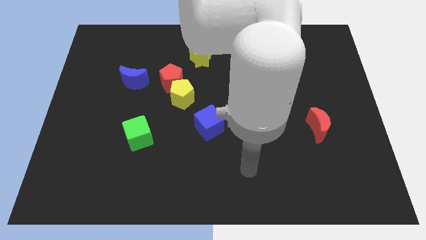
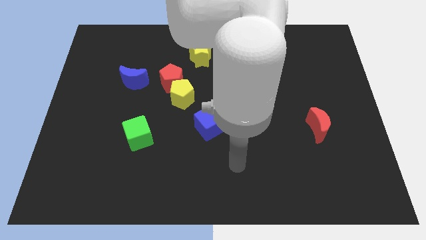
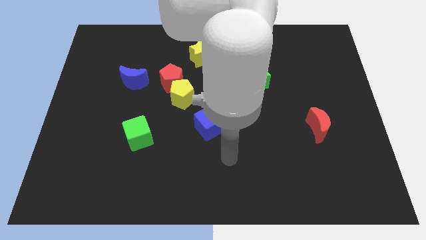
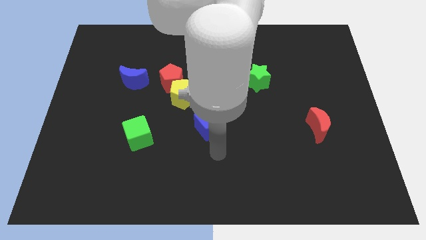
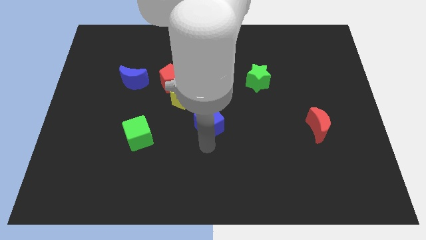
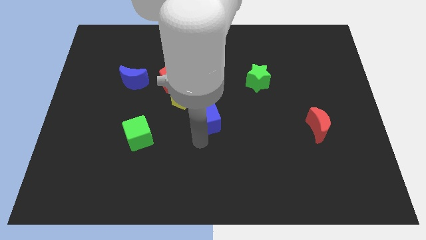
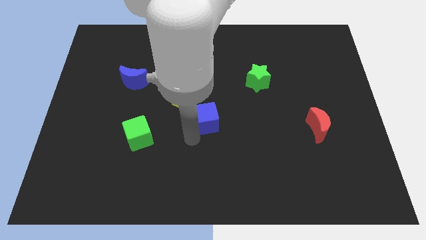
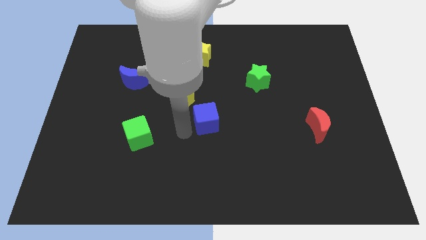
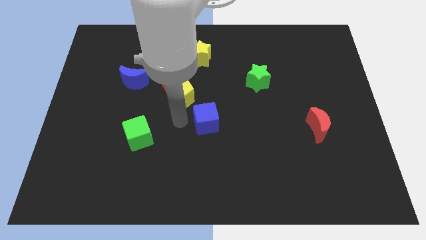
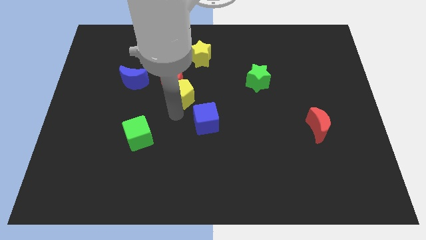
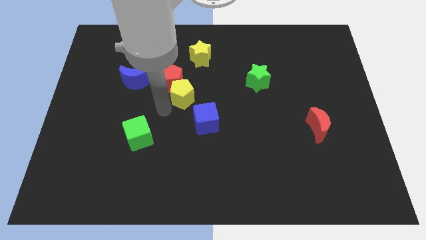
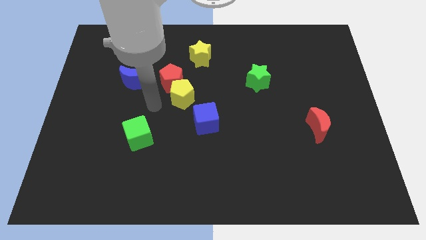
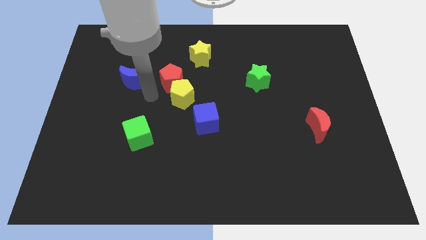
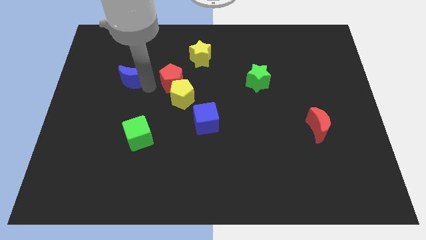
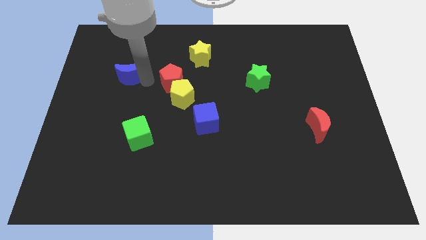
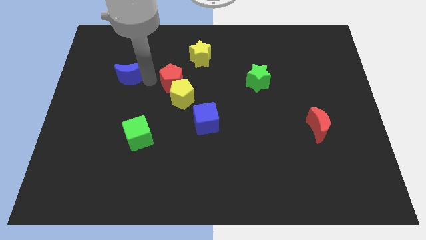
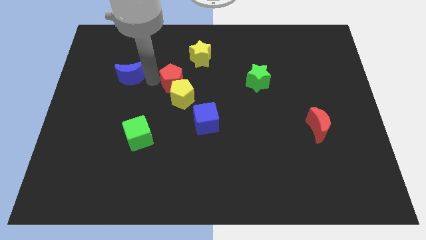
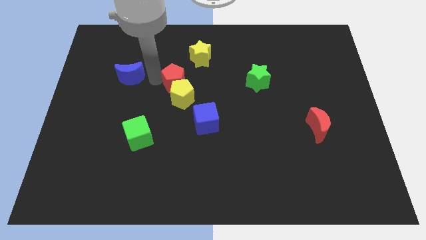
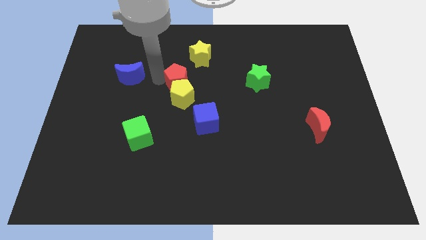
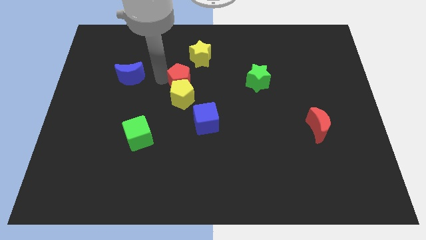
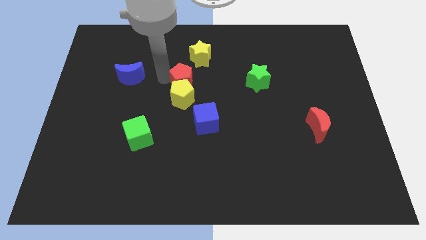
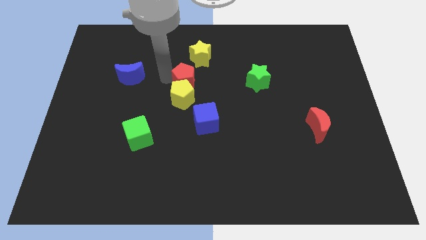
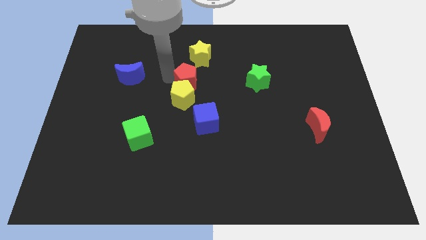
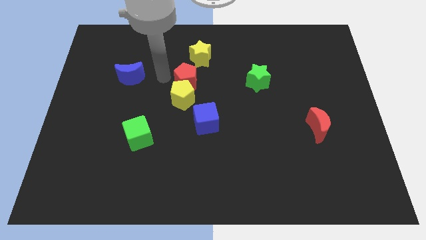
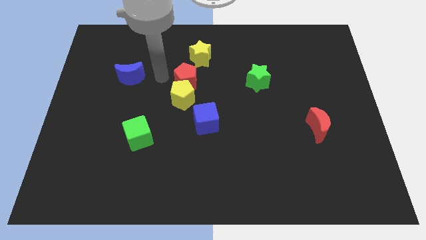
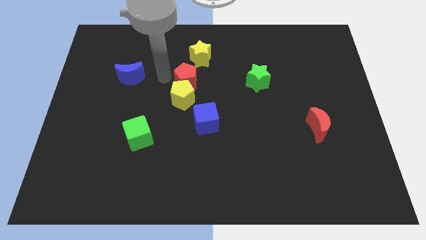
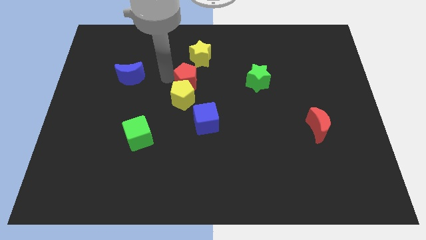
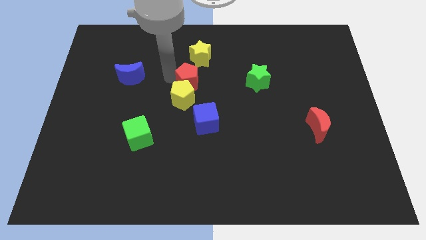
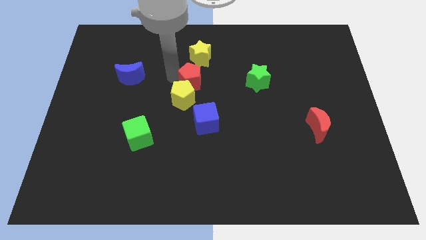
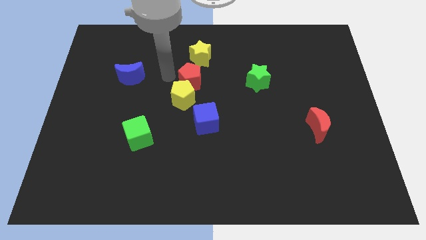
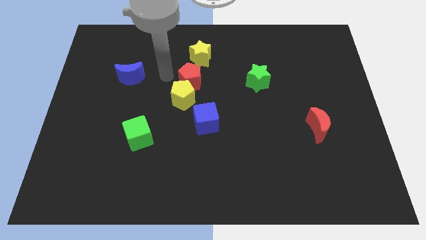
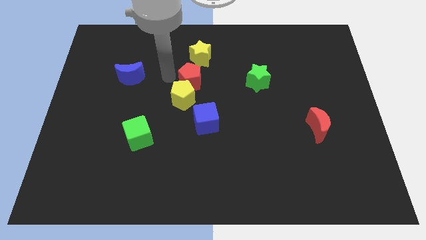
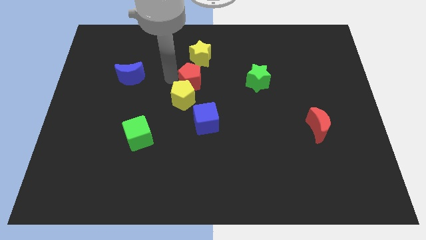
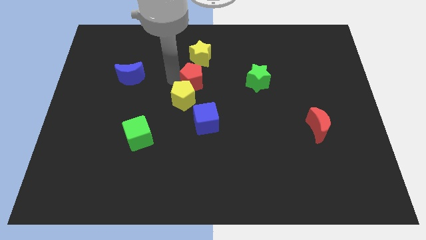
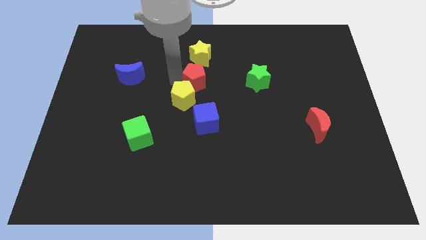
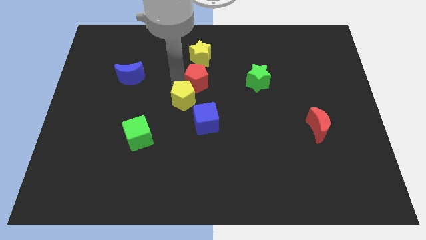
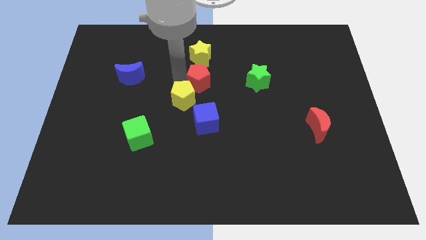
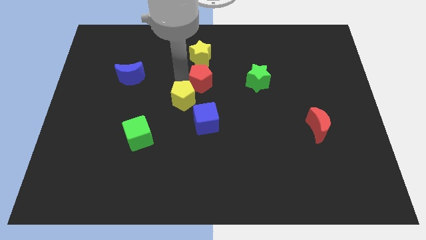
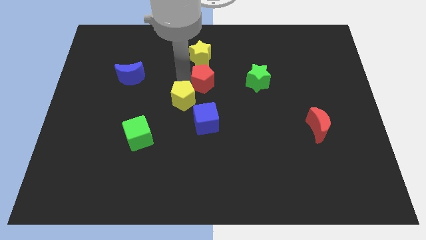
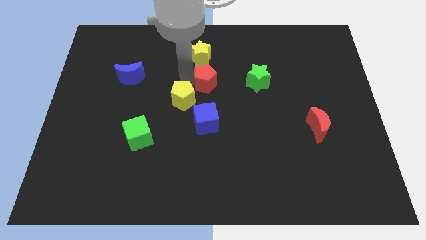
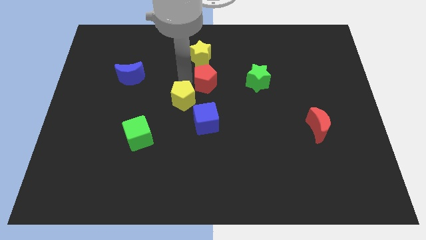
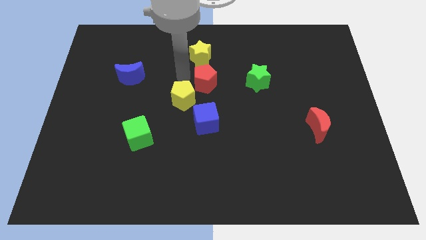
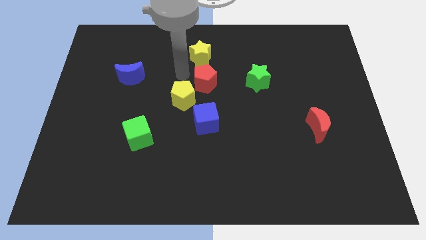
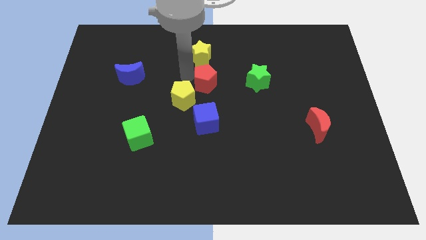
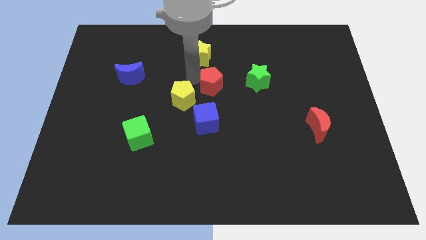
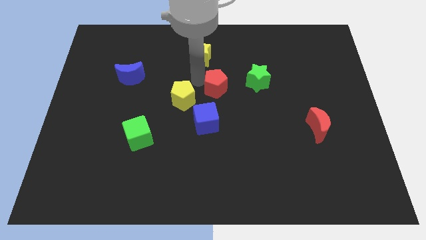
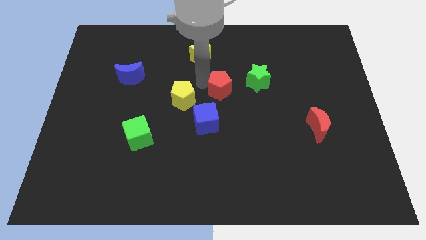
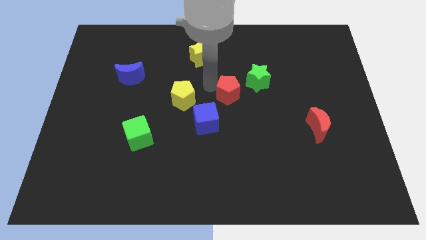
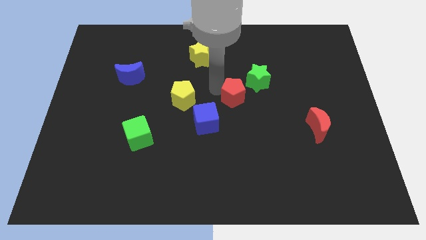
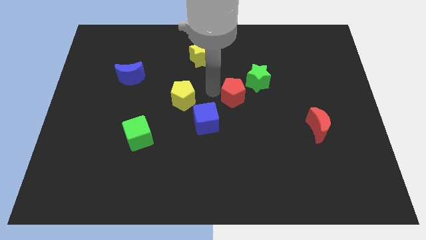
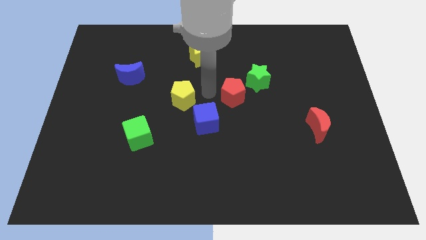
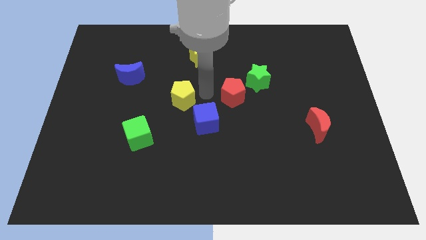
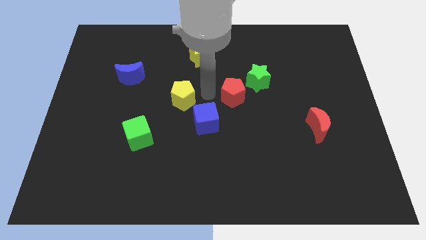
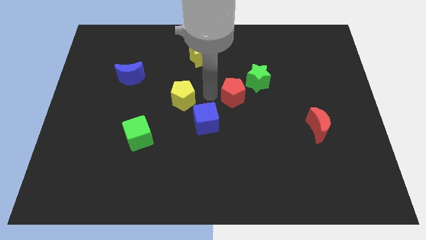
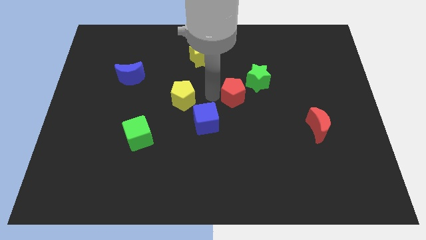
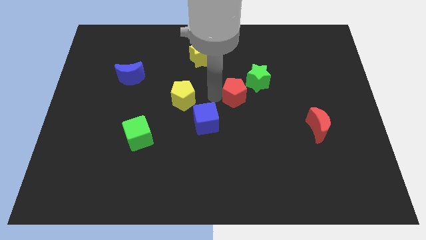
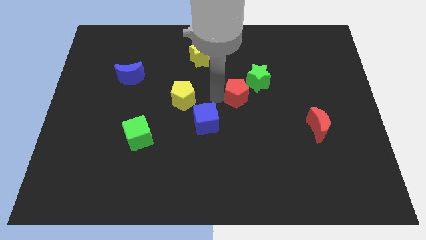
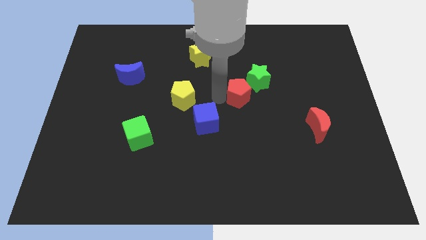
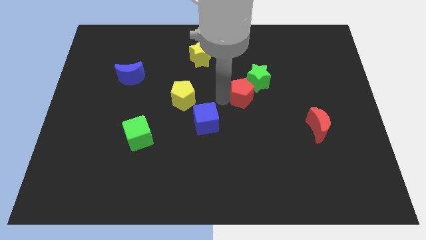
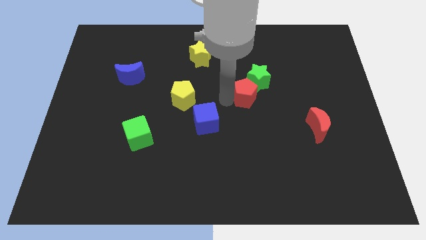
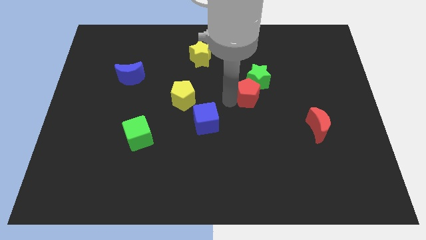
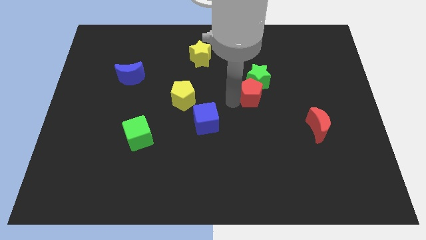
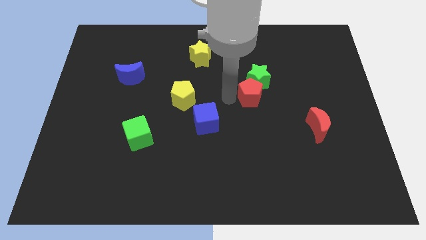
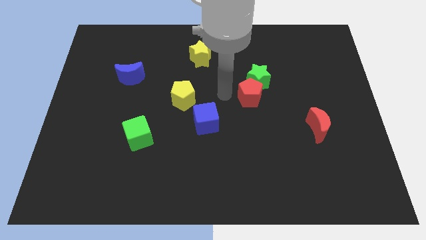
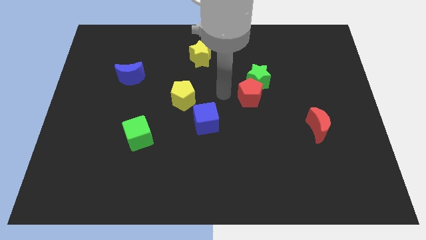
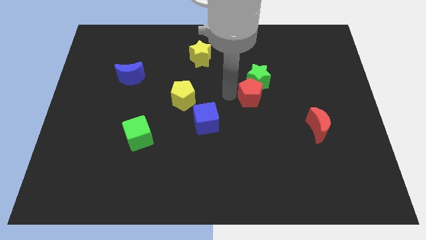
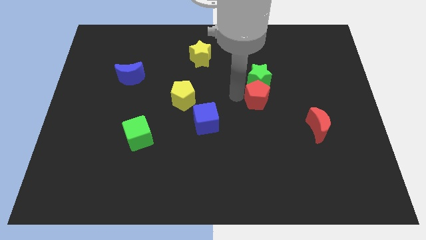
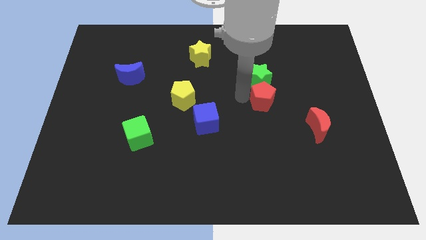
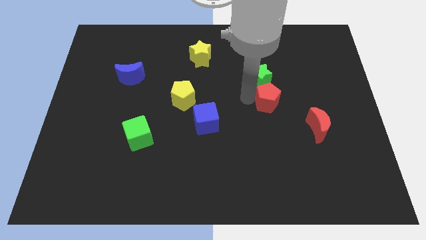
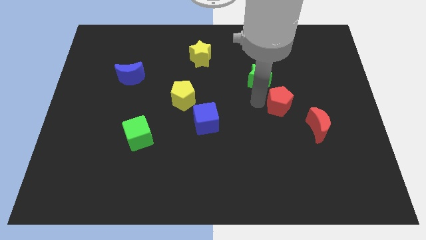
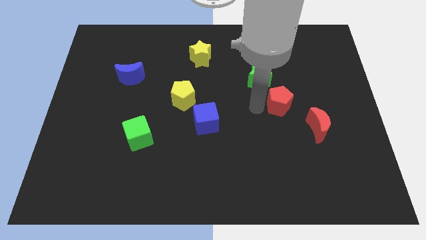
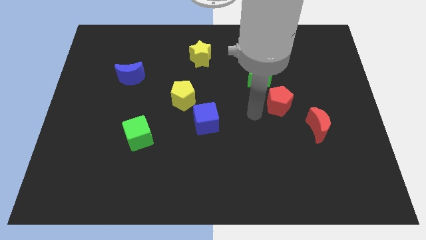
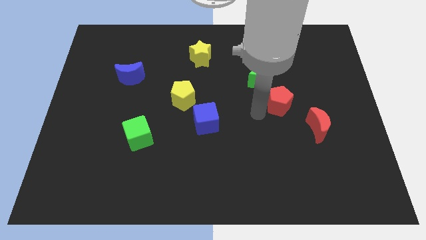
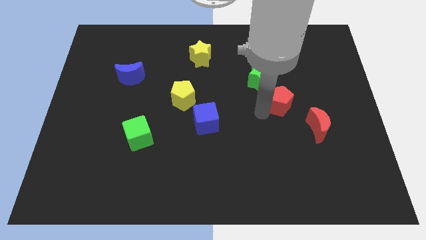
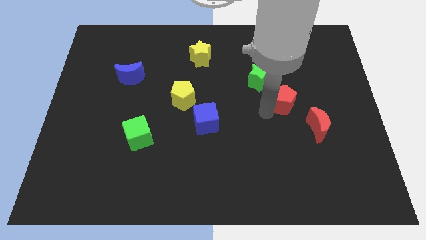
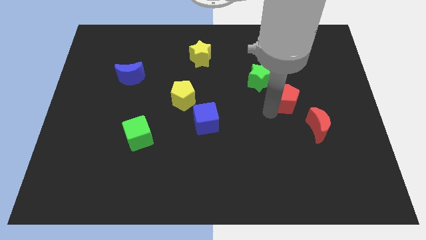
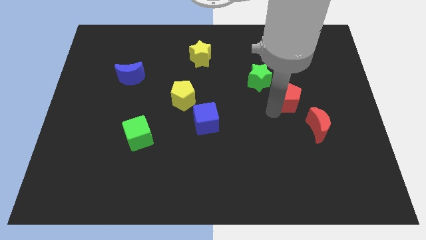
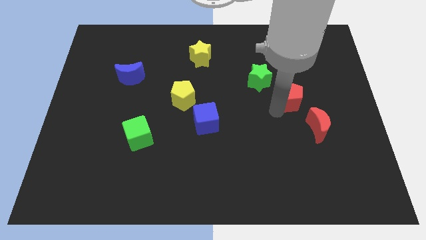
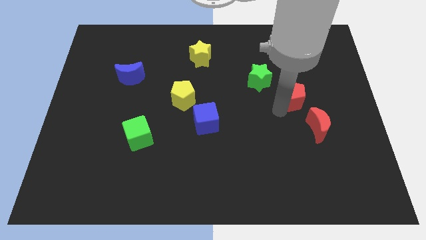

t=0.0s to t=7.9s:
slide the red pentagon above the red moon
